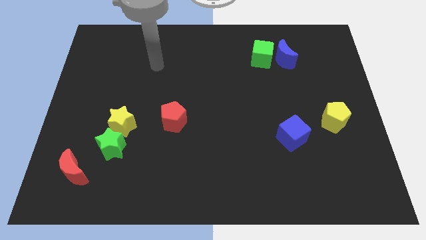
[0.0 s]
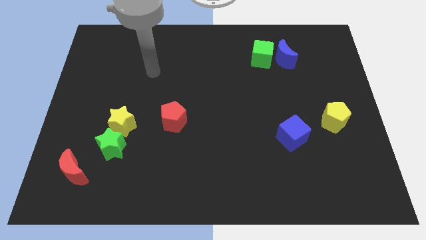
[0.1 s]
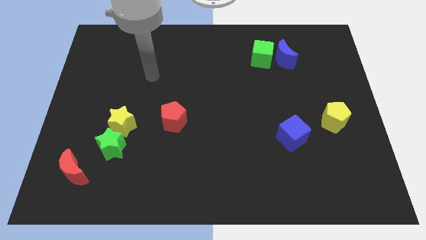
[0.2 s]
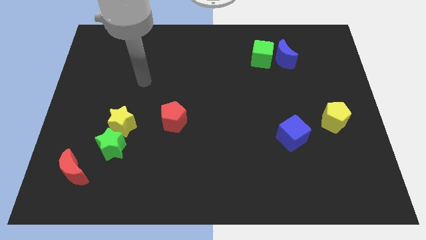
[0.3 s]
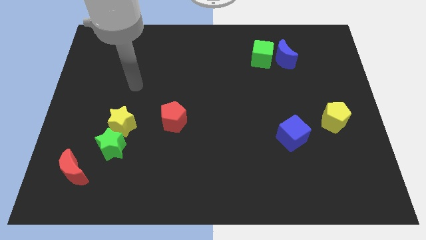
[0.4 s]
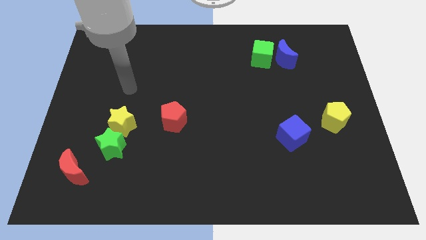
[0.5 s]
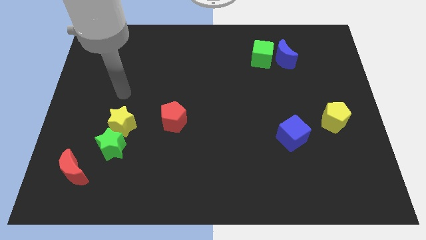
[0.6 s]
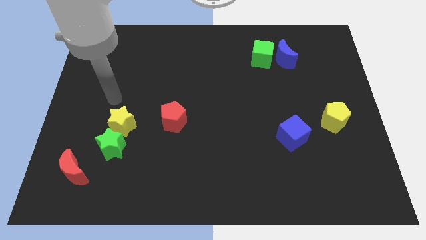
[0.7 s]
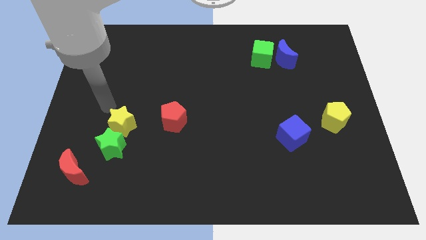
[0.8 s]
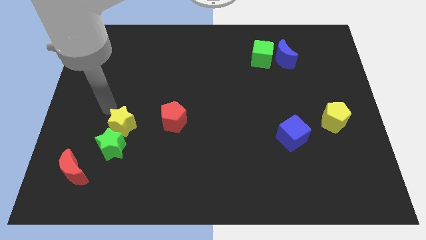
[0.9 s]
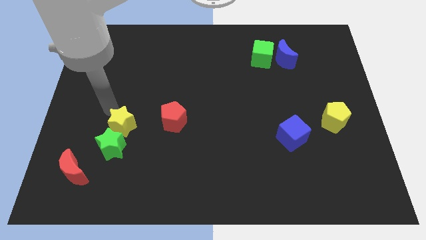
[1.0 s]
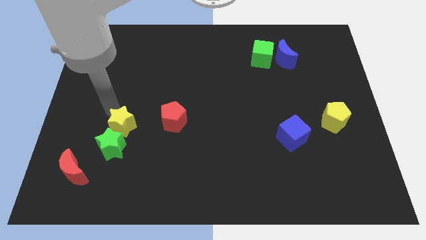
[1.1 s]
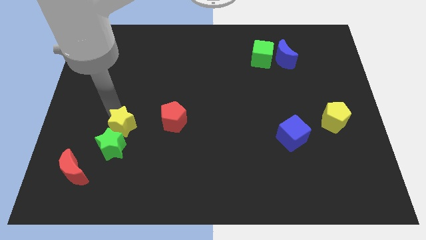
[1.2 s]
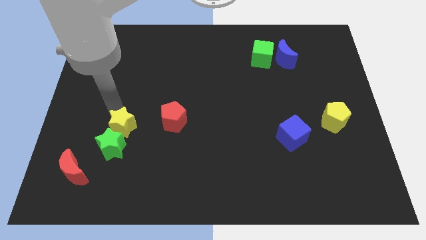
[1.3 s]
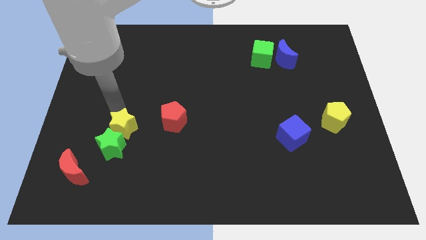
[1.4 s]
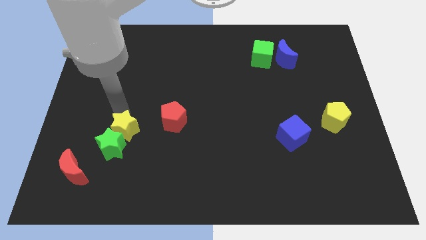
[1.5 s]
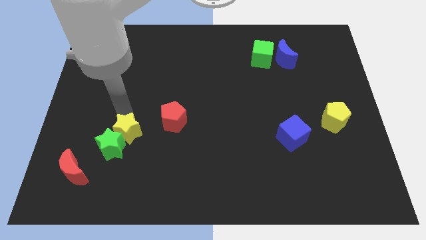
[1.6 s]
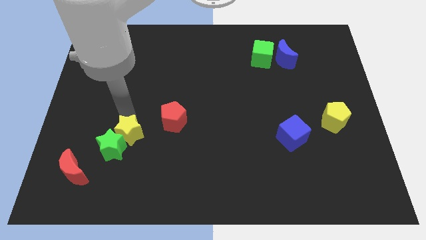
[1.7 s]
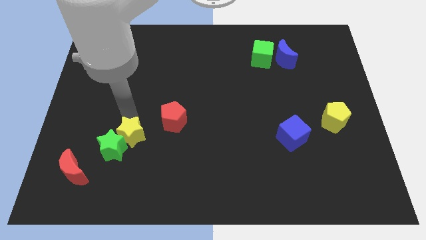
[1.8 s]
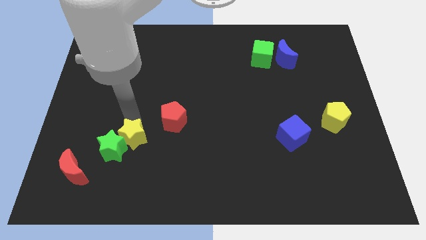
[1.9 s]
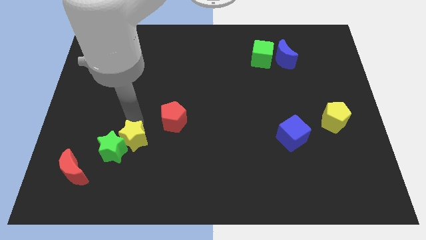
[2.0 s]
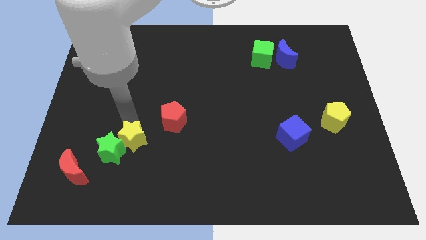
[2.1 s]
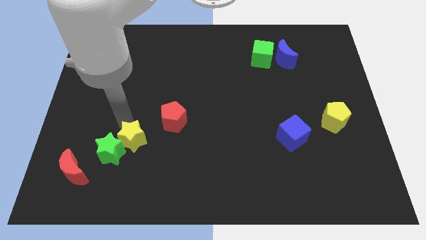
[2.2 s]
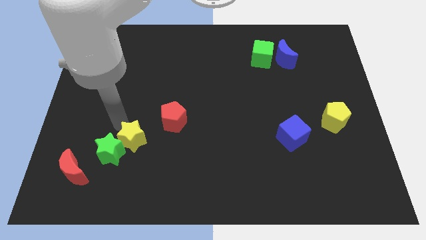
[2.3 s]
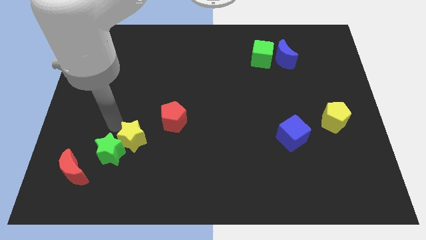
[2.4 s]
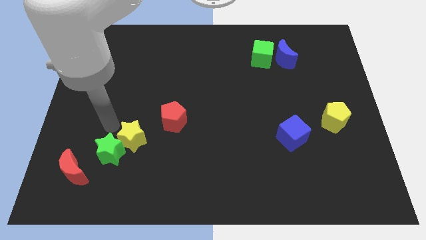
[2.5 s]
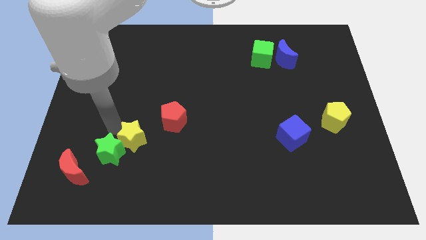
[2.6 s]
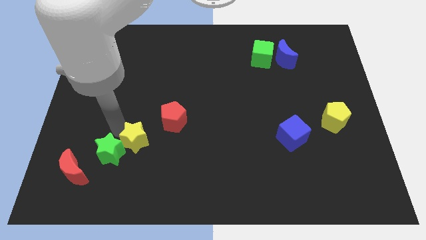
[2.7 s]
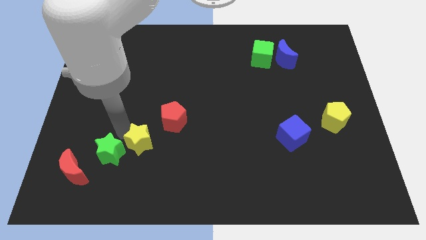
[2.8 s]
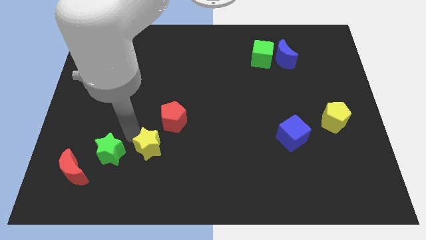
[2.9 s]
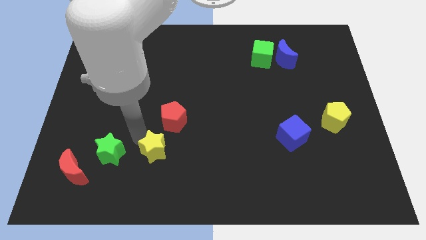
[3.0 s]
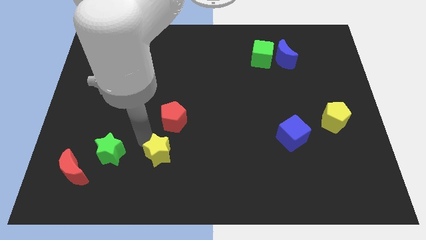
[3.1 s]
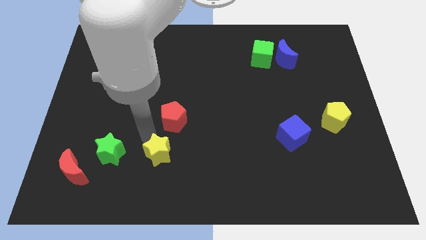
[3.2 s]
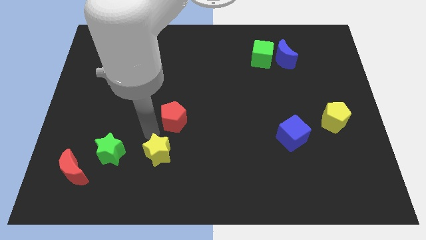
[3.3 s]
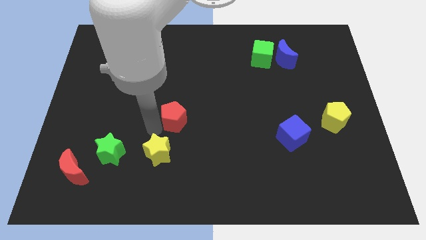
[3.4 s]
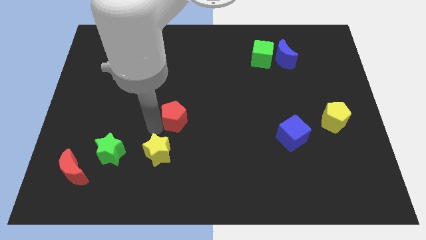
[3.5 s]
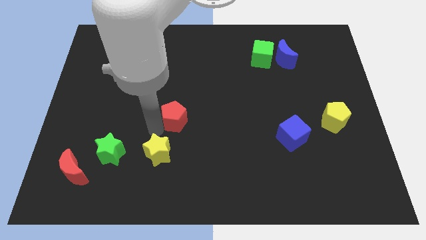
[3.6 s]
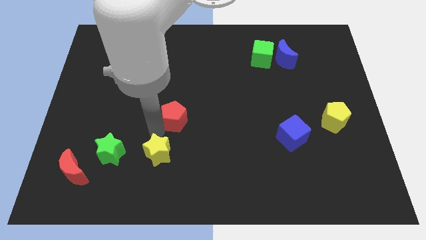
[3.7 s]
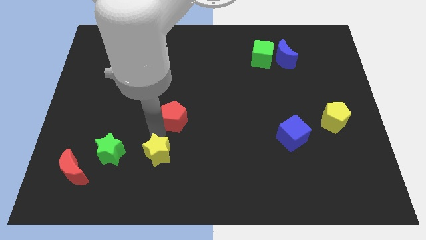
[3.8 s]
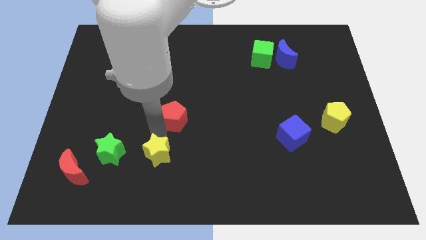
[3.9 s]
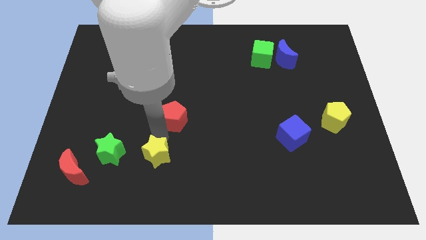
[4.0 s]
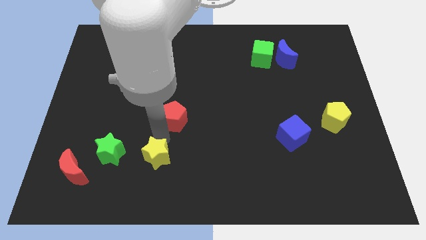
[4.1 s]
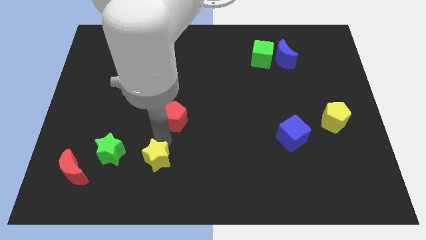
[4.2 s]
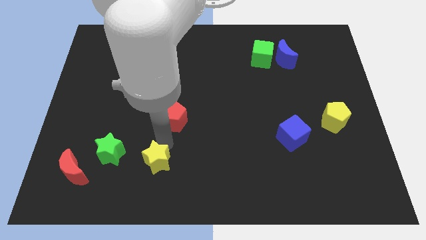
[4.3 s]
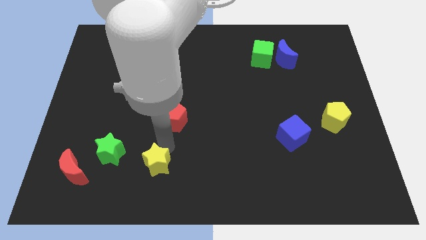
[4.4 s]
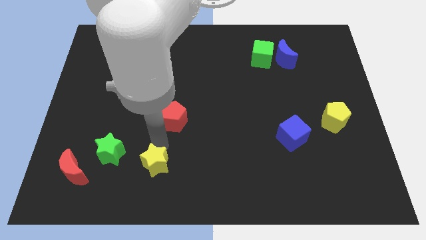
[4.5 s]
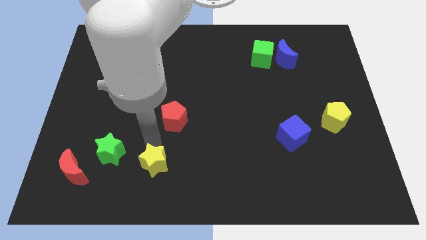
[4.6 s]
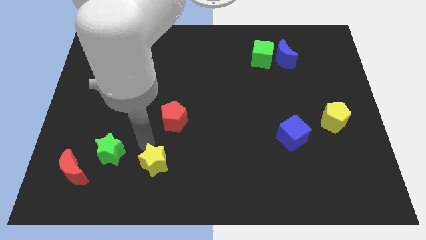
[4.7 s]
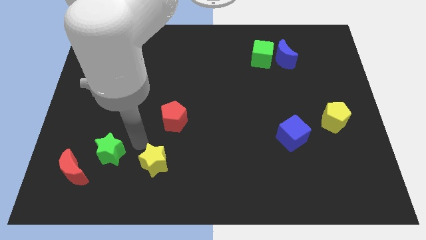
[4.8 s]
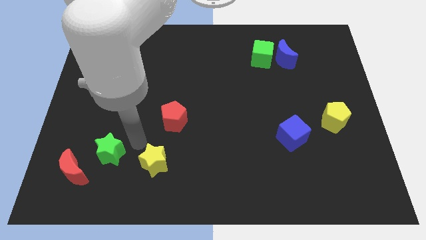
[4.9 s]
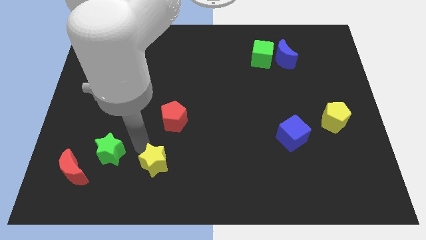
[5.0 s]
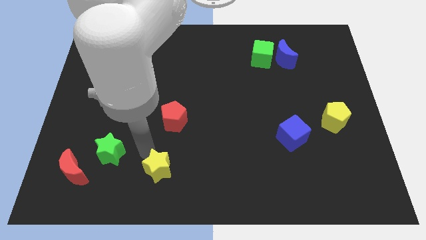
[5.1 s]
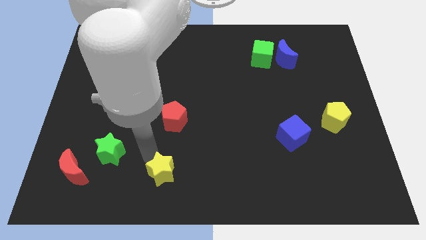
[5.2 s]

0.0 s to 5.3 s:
push the yellow star to the bottom
